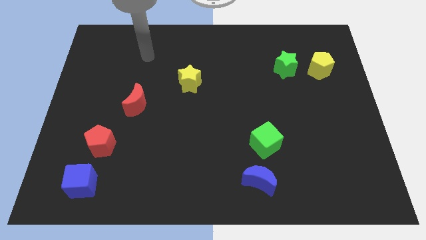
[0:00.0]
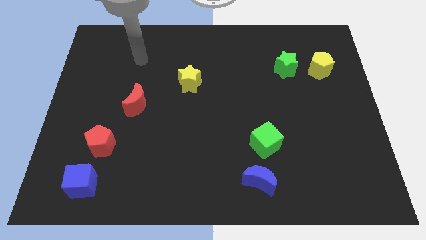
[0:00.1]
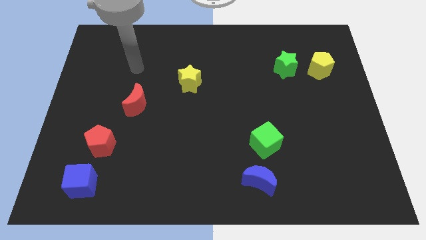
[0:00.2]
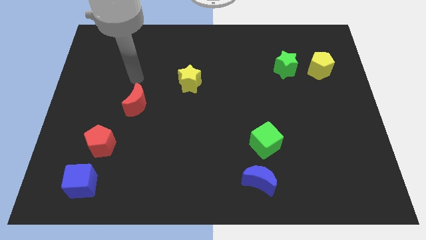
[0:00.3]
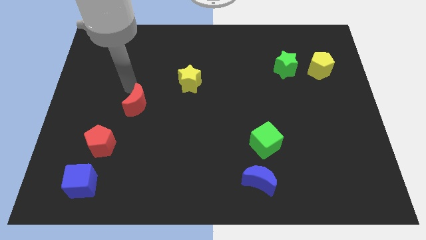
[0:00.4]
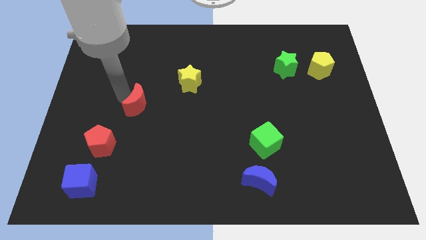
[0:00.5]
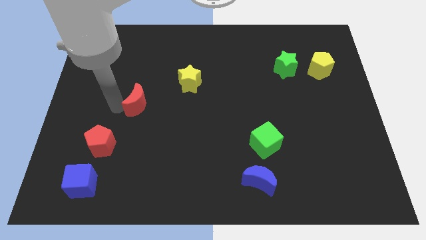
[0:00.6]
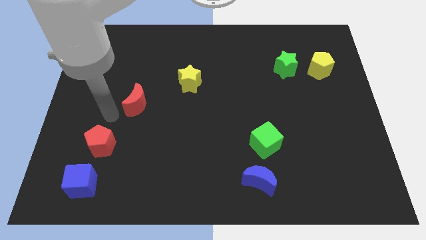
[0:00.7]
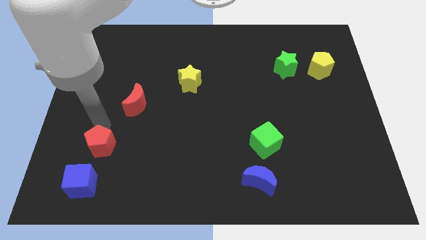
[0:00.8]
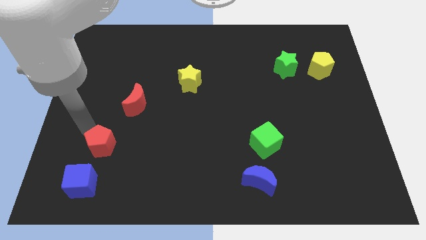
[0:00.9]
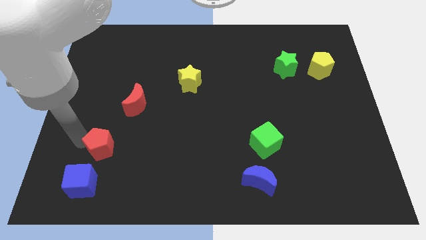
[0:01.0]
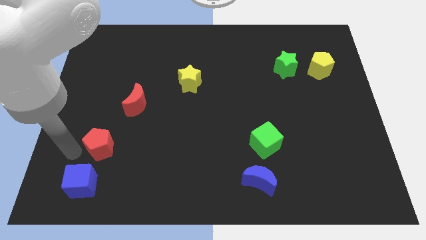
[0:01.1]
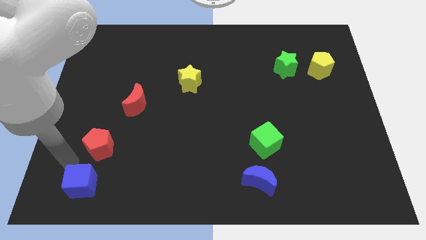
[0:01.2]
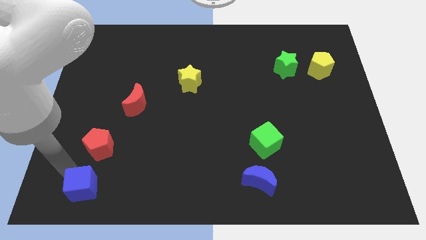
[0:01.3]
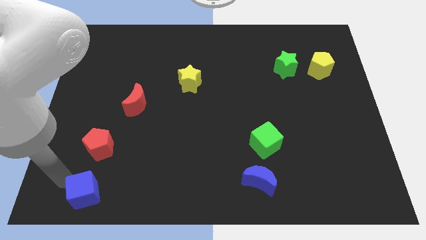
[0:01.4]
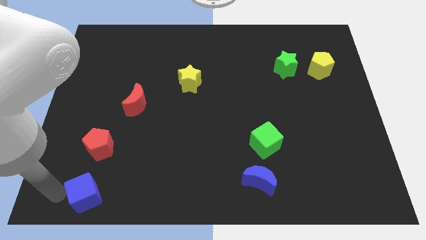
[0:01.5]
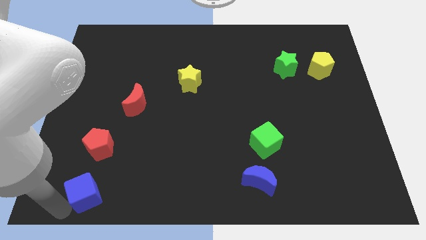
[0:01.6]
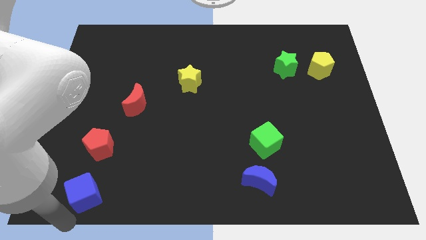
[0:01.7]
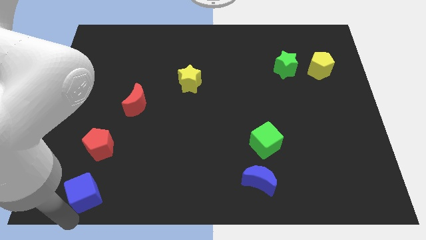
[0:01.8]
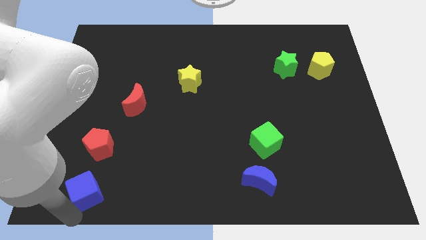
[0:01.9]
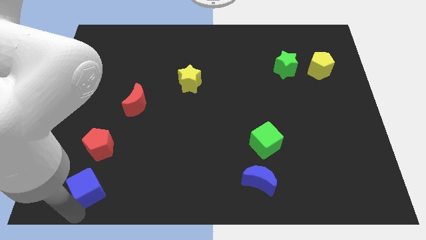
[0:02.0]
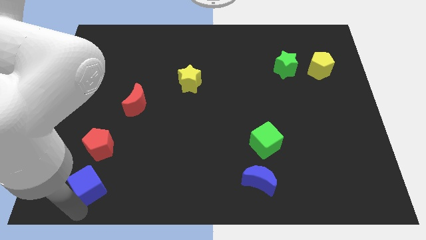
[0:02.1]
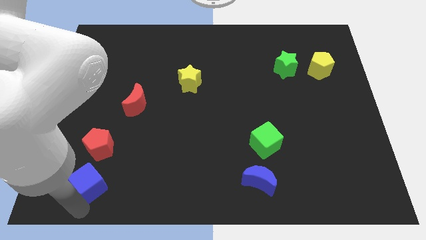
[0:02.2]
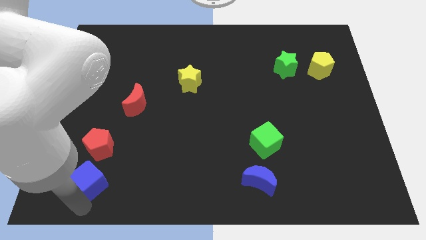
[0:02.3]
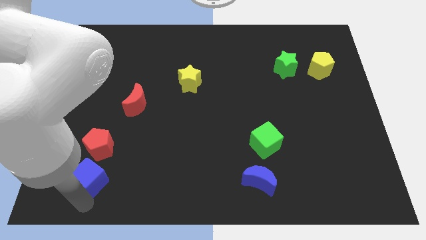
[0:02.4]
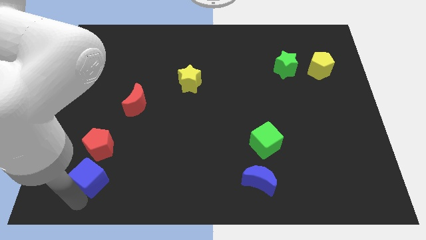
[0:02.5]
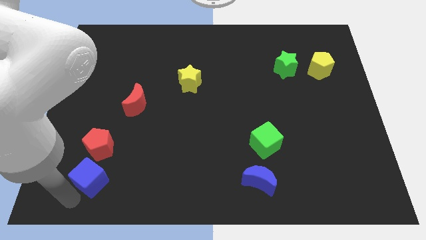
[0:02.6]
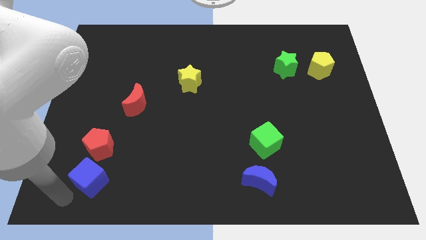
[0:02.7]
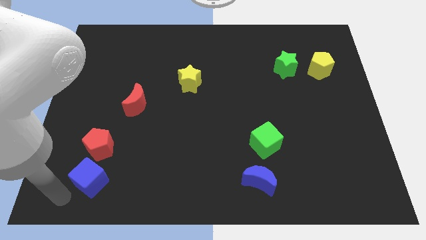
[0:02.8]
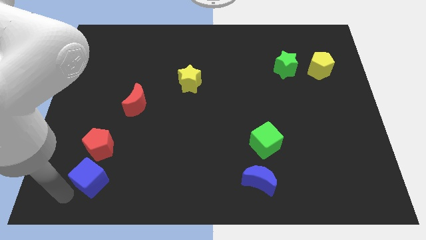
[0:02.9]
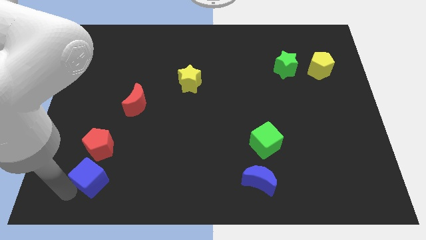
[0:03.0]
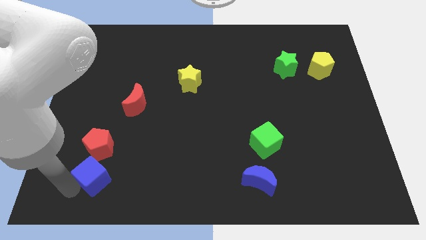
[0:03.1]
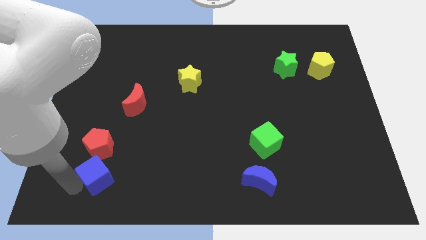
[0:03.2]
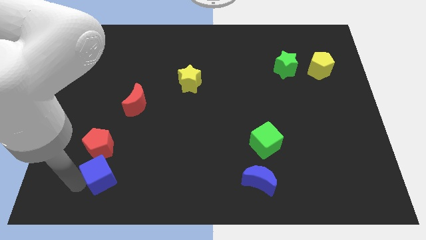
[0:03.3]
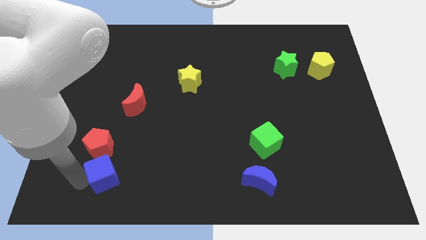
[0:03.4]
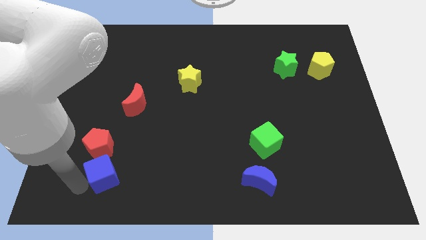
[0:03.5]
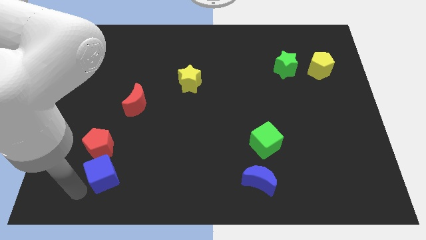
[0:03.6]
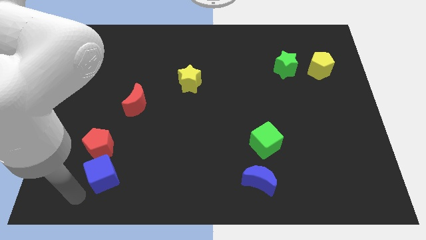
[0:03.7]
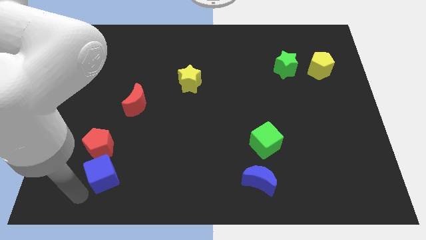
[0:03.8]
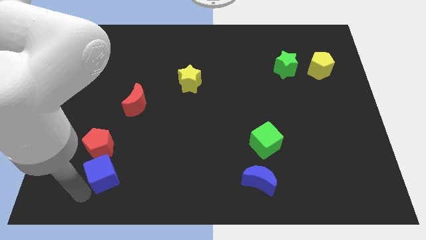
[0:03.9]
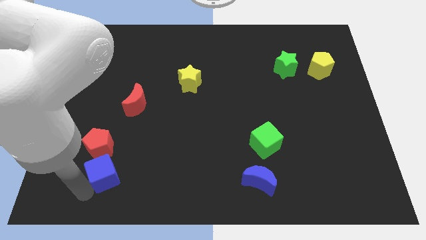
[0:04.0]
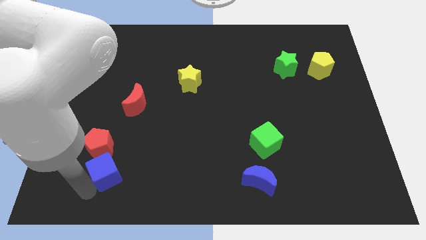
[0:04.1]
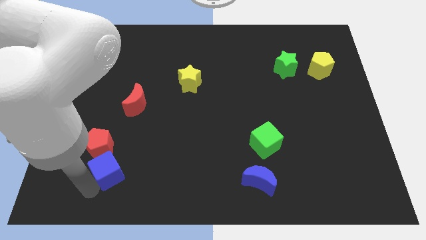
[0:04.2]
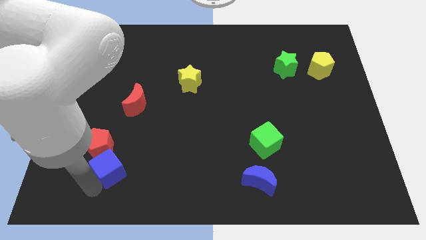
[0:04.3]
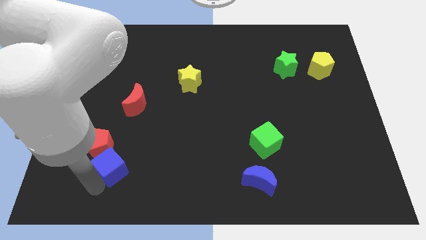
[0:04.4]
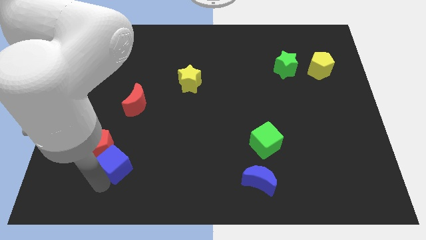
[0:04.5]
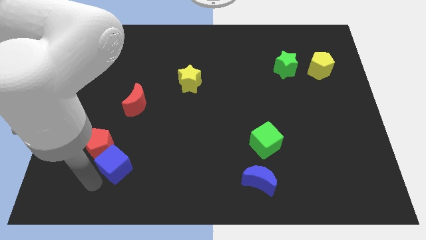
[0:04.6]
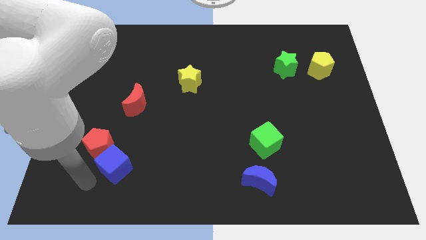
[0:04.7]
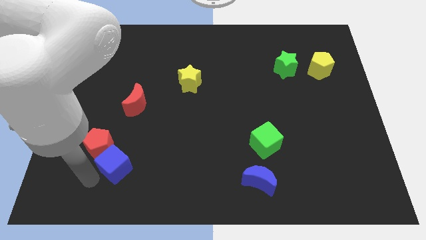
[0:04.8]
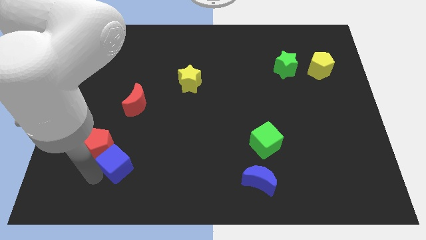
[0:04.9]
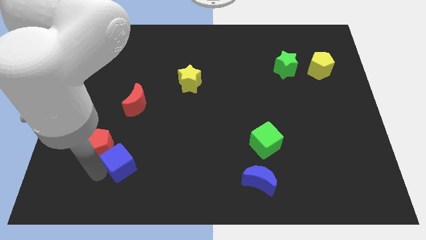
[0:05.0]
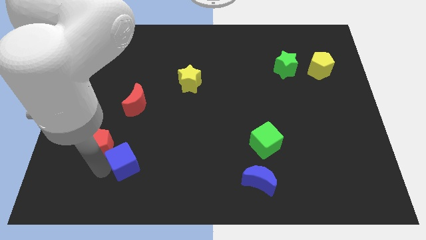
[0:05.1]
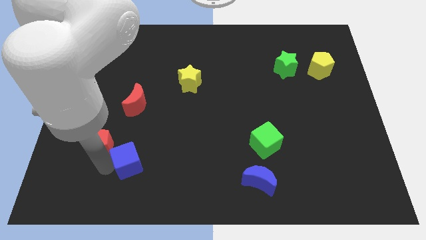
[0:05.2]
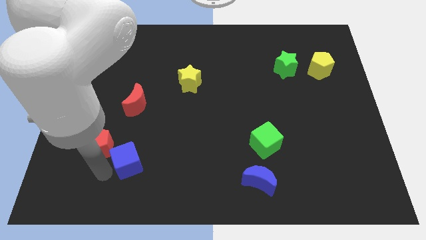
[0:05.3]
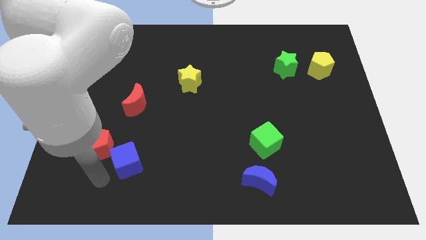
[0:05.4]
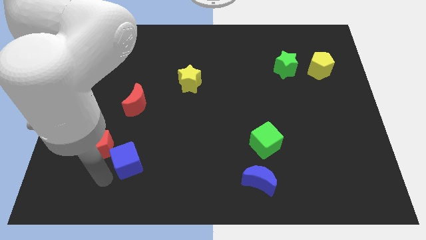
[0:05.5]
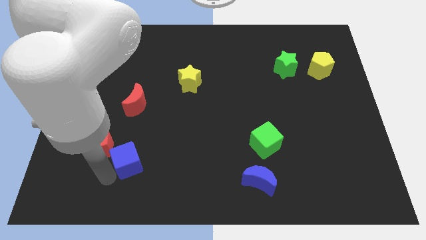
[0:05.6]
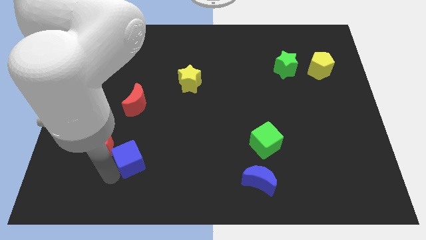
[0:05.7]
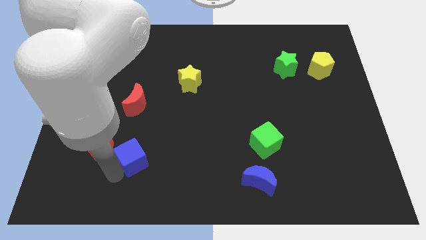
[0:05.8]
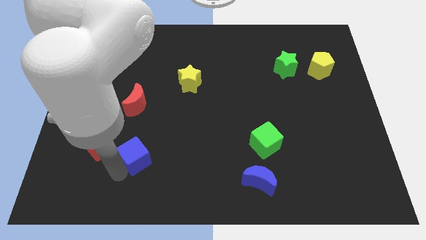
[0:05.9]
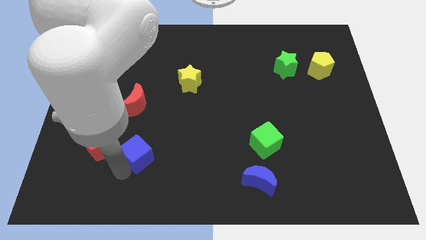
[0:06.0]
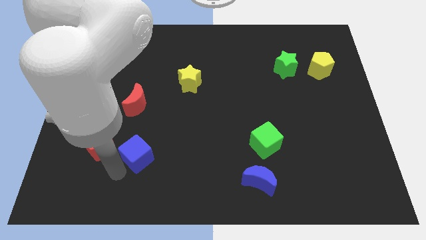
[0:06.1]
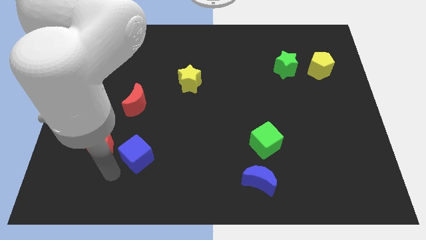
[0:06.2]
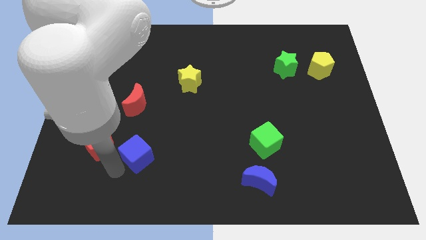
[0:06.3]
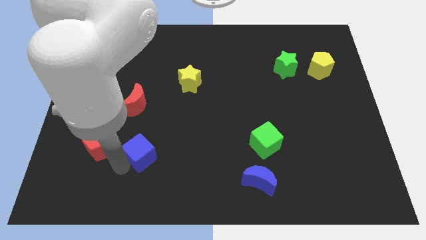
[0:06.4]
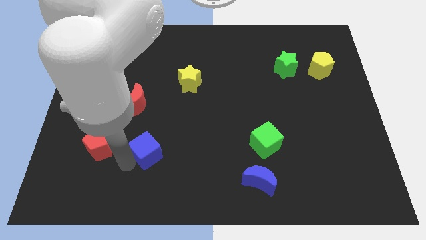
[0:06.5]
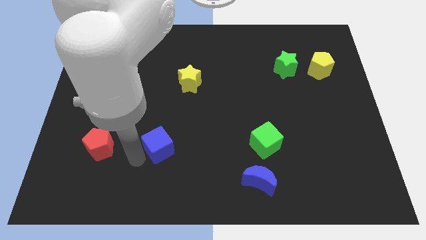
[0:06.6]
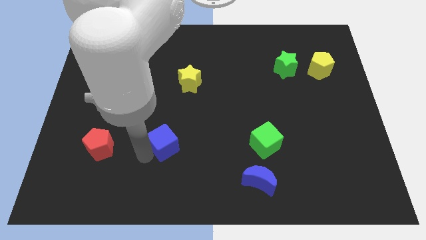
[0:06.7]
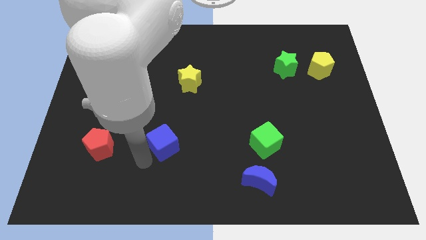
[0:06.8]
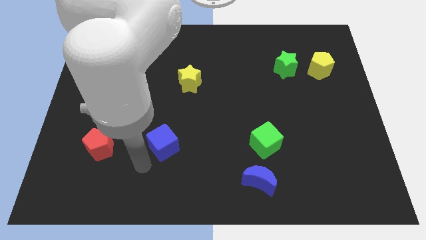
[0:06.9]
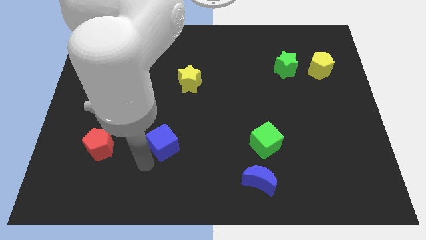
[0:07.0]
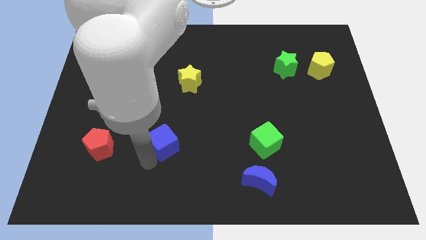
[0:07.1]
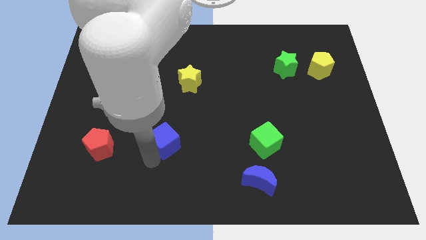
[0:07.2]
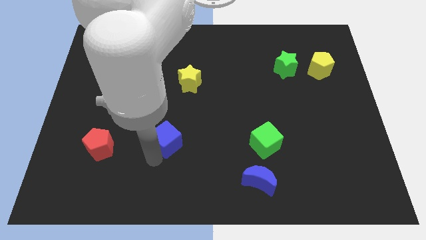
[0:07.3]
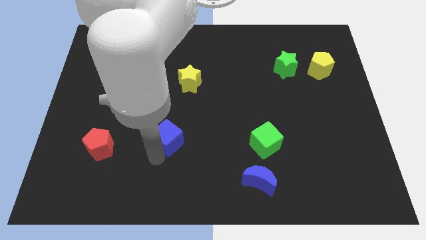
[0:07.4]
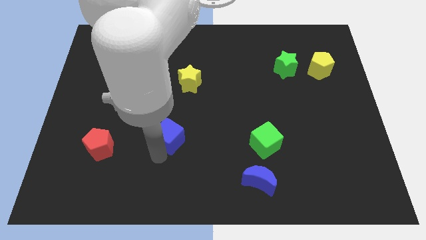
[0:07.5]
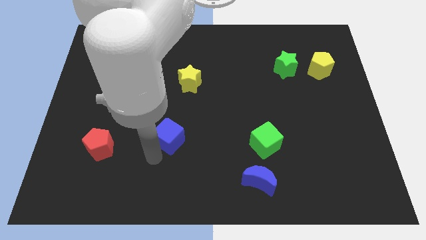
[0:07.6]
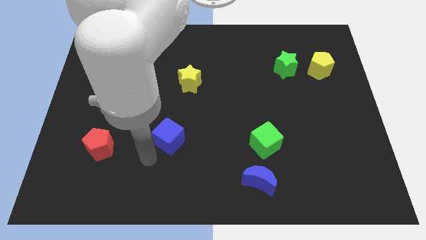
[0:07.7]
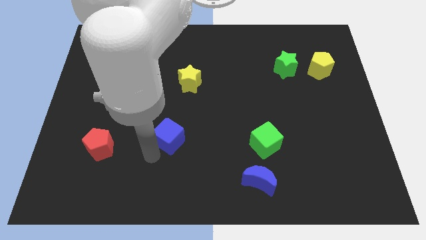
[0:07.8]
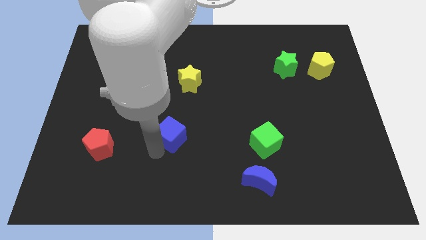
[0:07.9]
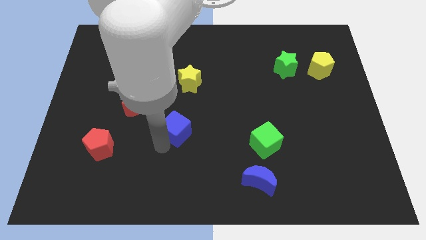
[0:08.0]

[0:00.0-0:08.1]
push the blue cube to the middle
